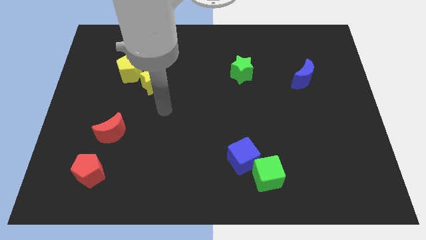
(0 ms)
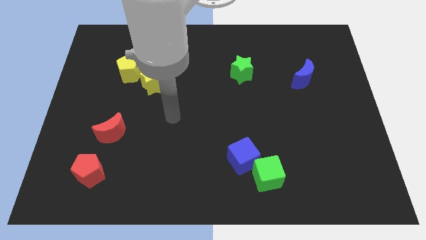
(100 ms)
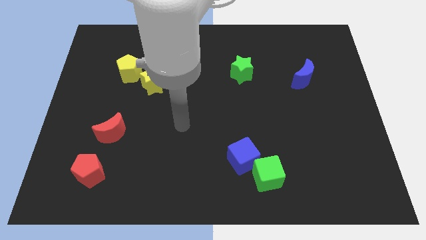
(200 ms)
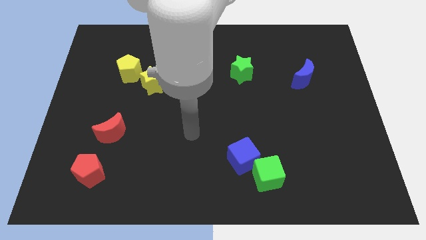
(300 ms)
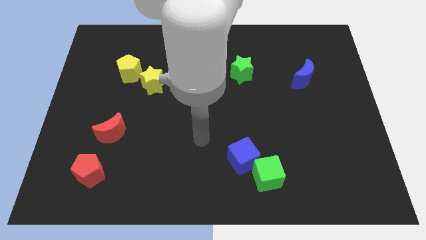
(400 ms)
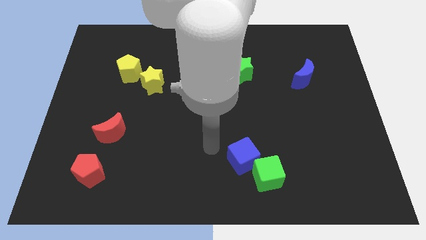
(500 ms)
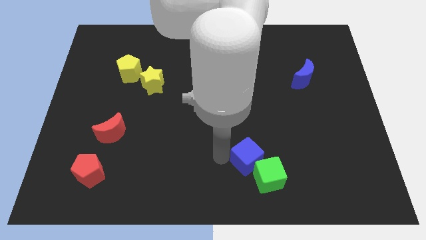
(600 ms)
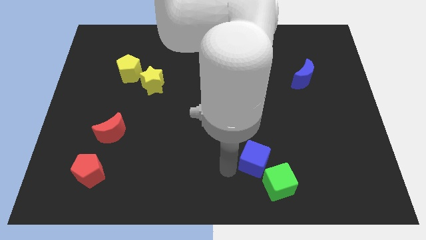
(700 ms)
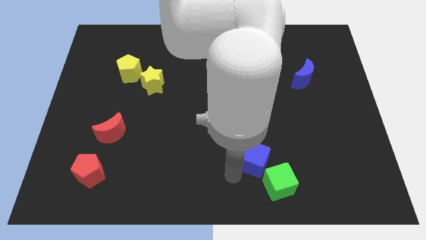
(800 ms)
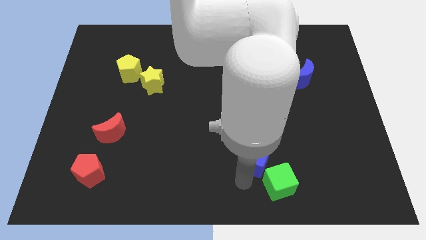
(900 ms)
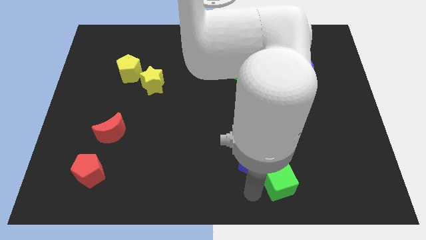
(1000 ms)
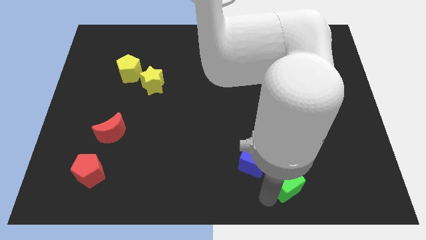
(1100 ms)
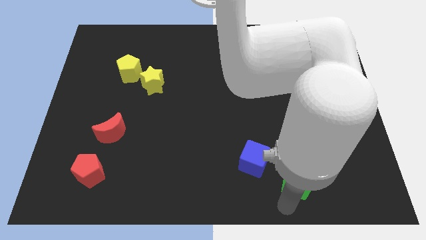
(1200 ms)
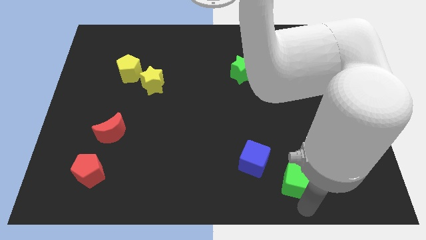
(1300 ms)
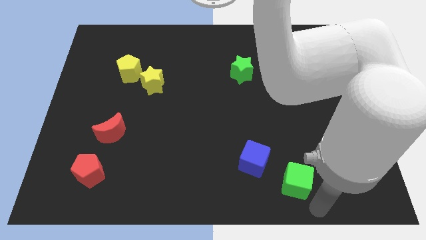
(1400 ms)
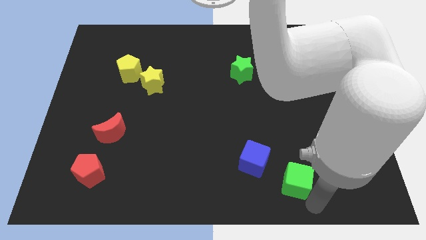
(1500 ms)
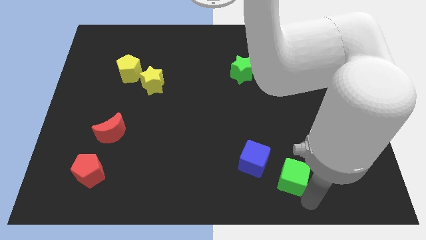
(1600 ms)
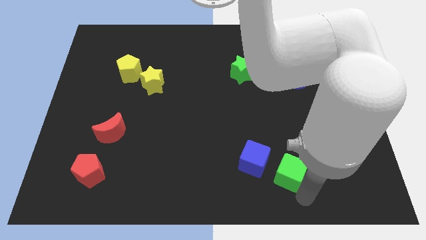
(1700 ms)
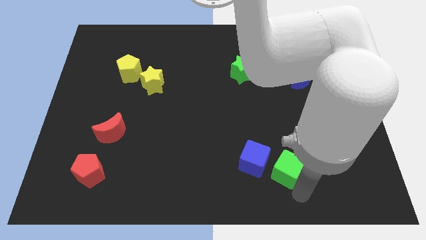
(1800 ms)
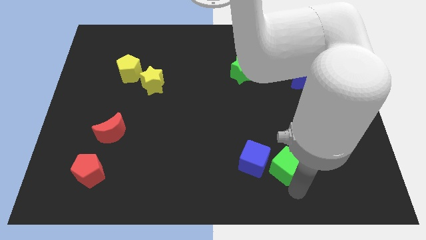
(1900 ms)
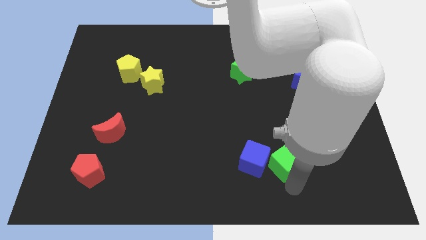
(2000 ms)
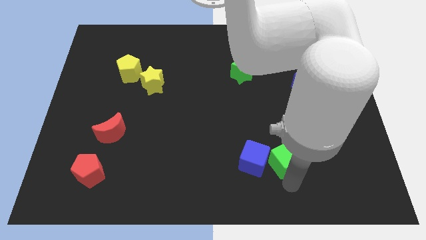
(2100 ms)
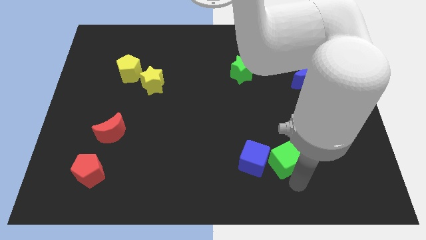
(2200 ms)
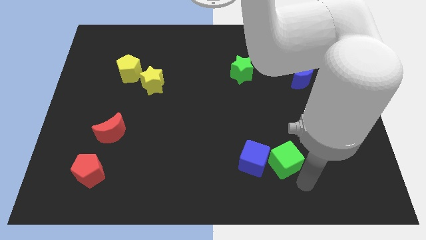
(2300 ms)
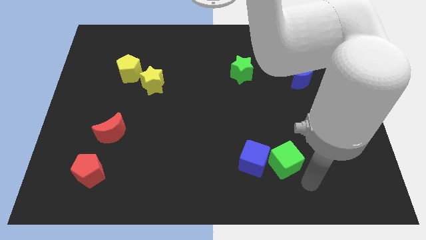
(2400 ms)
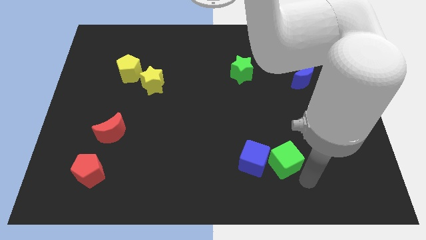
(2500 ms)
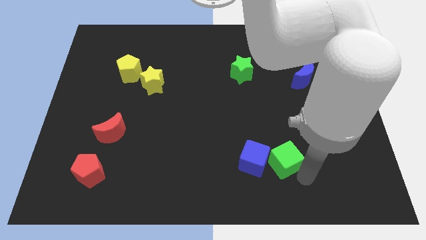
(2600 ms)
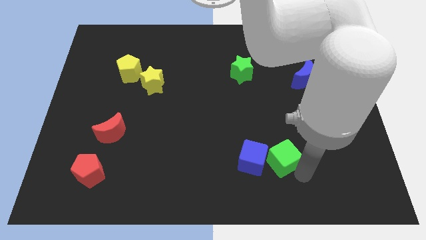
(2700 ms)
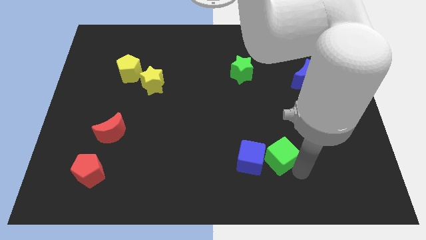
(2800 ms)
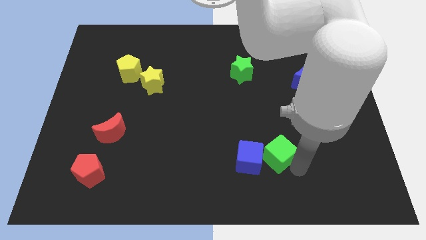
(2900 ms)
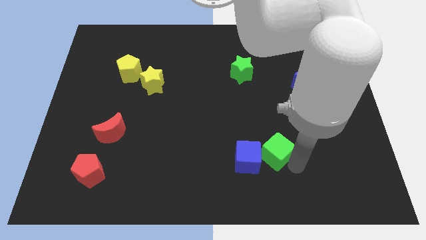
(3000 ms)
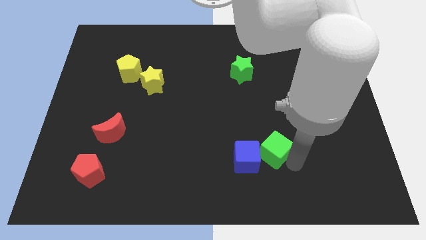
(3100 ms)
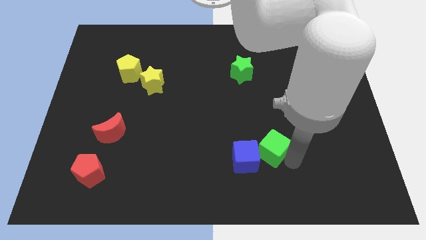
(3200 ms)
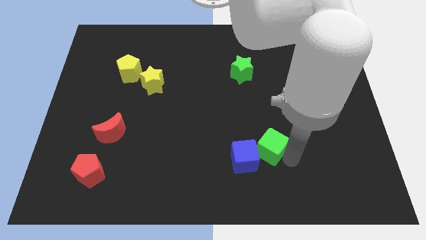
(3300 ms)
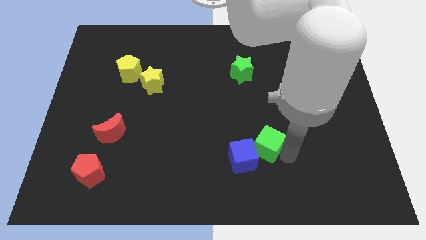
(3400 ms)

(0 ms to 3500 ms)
push the green cube a little up

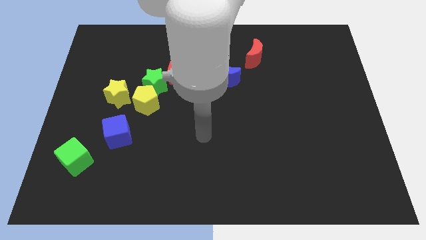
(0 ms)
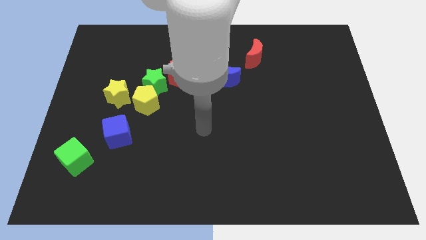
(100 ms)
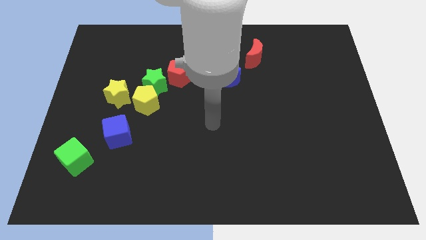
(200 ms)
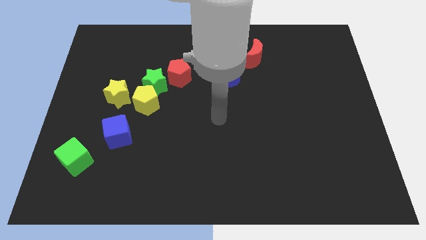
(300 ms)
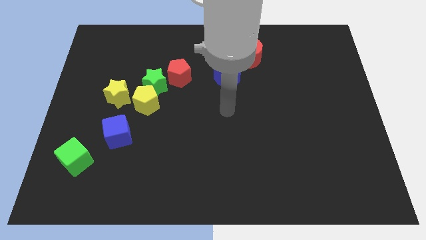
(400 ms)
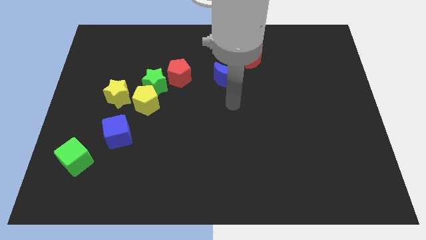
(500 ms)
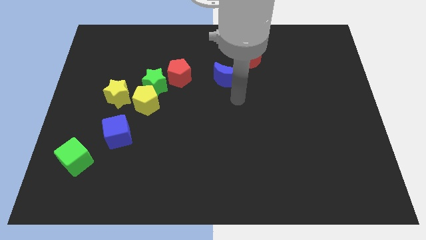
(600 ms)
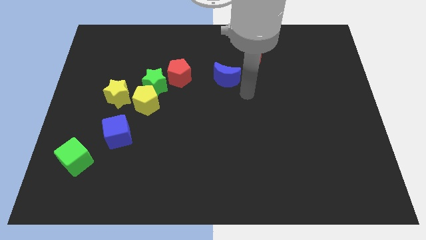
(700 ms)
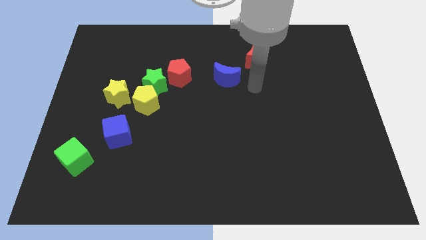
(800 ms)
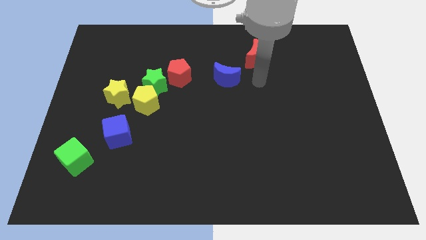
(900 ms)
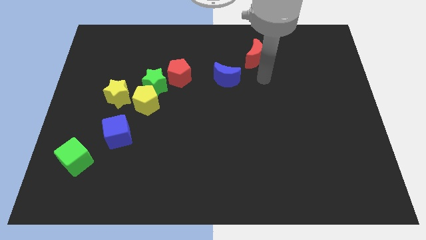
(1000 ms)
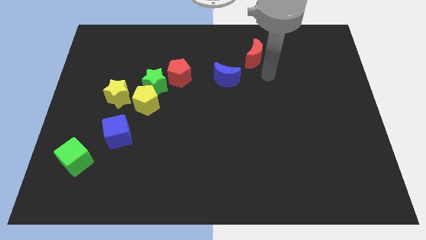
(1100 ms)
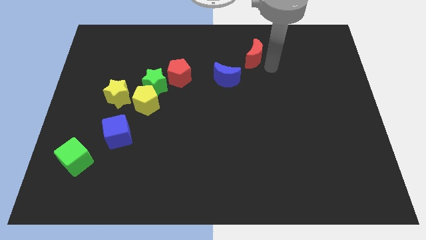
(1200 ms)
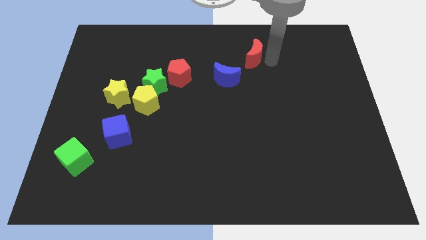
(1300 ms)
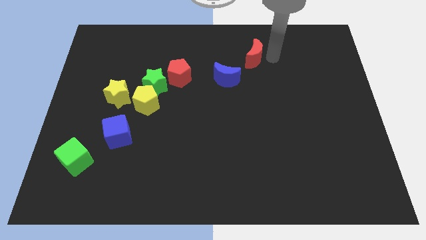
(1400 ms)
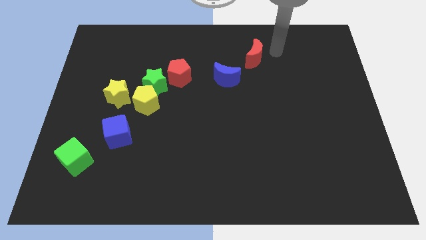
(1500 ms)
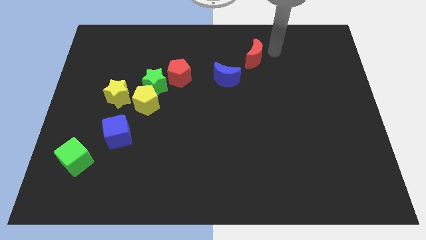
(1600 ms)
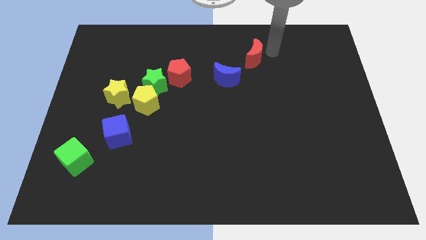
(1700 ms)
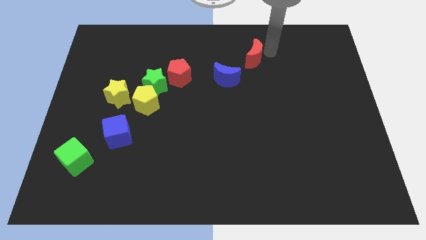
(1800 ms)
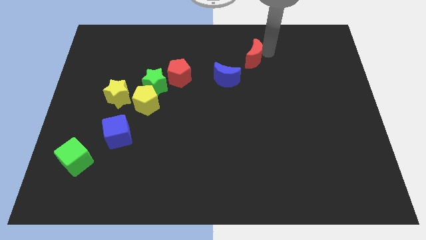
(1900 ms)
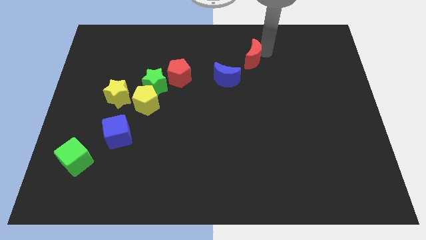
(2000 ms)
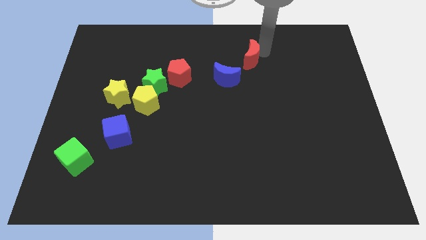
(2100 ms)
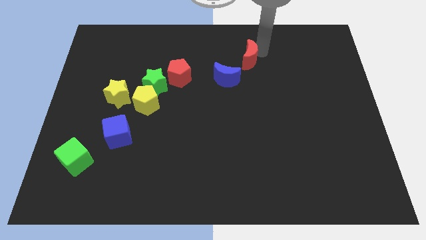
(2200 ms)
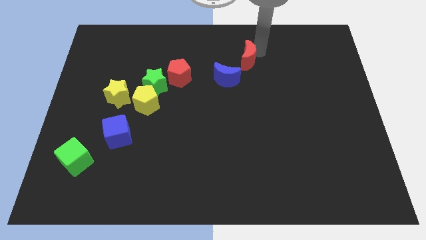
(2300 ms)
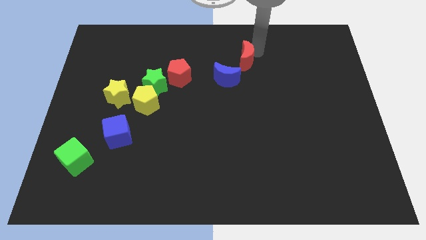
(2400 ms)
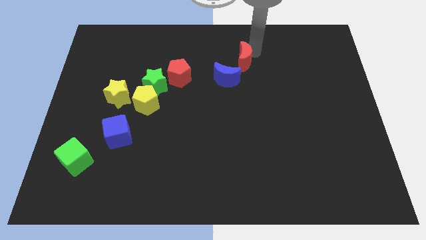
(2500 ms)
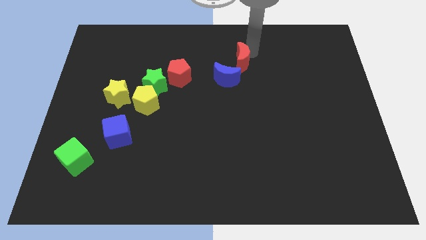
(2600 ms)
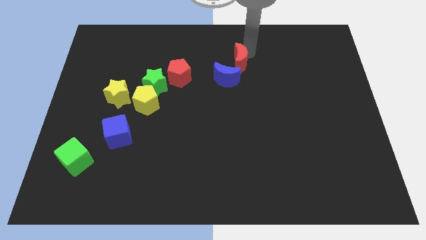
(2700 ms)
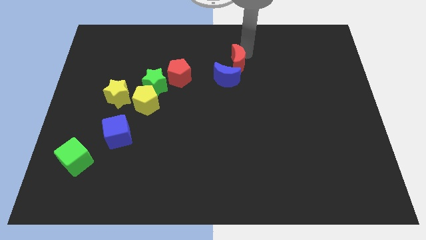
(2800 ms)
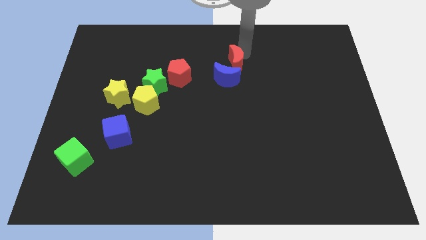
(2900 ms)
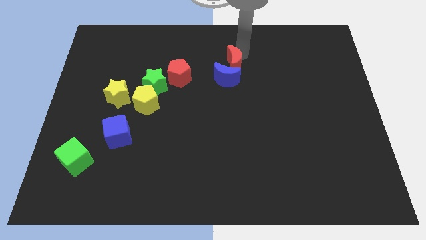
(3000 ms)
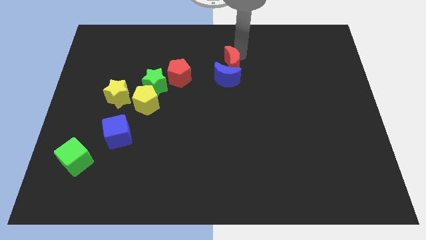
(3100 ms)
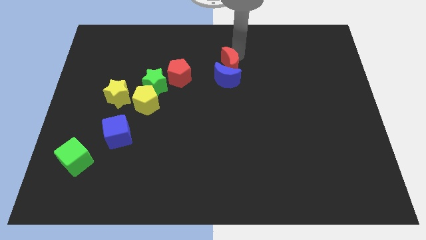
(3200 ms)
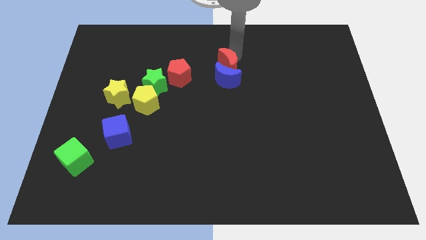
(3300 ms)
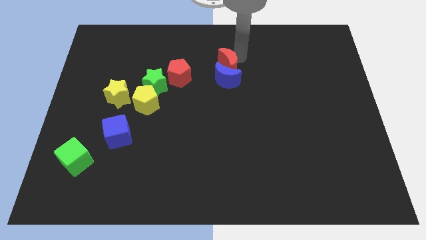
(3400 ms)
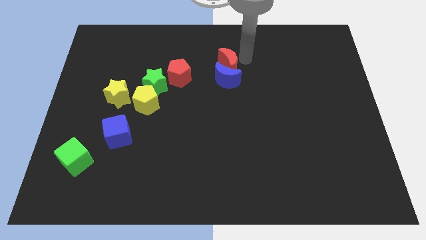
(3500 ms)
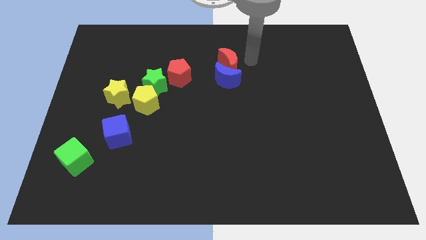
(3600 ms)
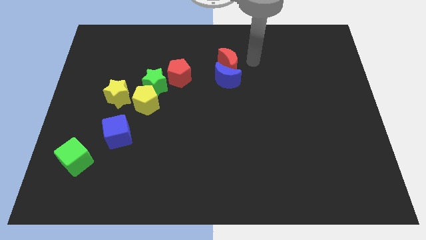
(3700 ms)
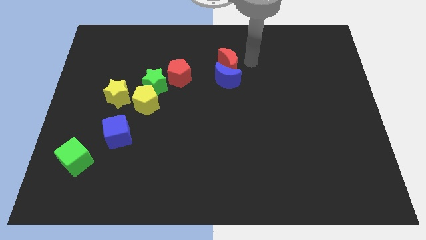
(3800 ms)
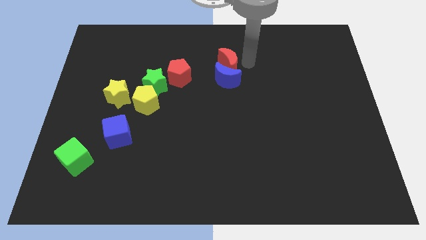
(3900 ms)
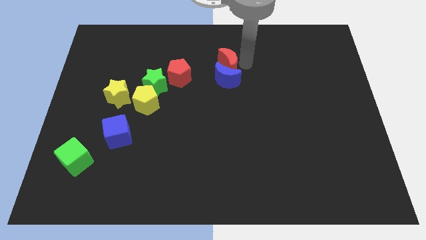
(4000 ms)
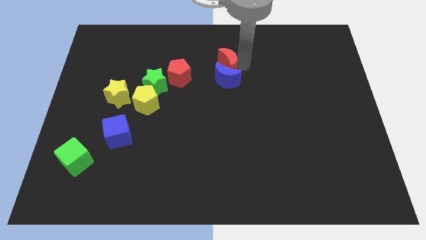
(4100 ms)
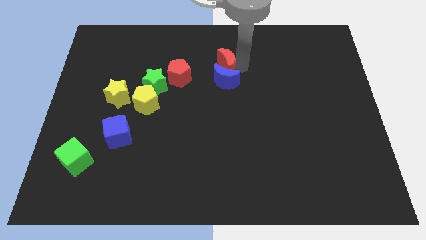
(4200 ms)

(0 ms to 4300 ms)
move the red moon a little bit downwards and to the left diagonally

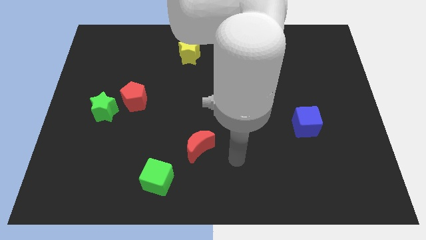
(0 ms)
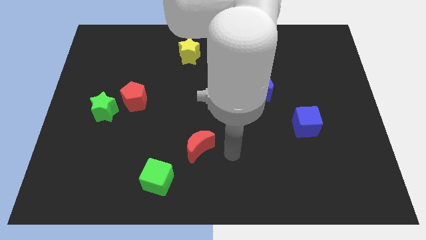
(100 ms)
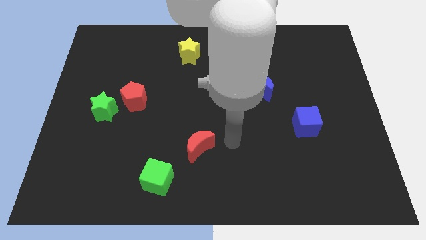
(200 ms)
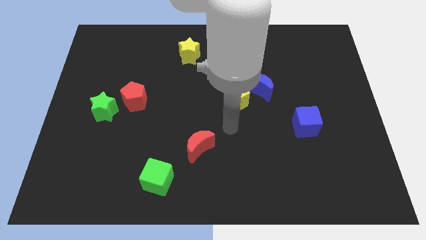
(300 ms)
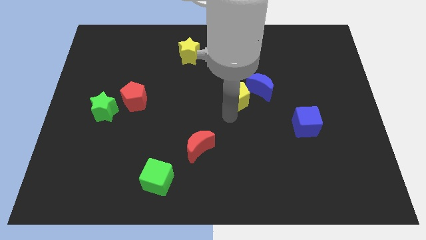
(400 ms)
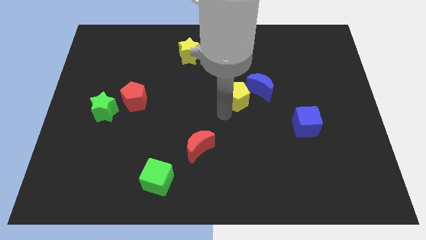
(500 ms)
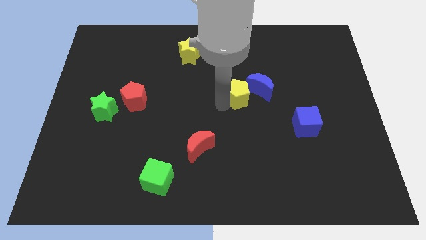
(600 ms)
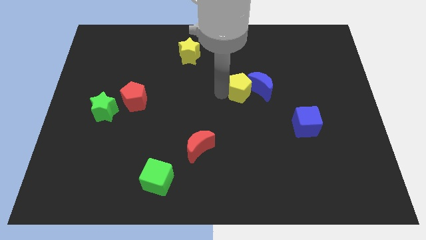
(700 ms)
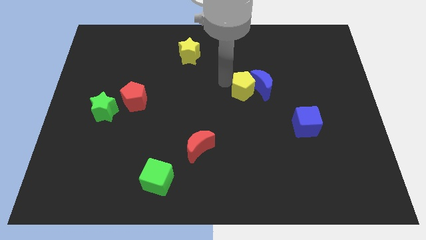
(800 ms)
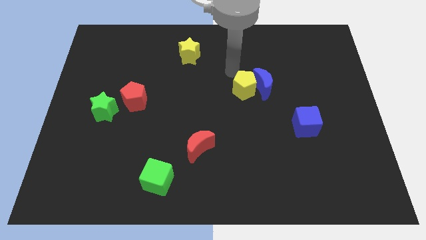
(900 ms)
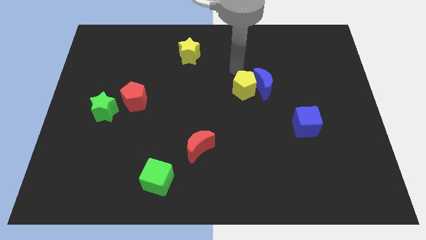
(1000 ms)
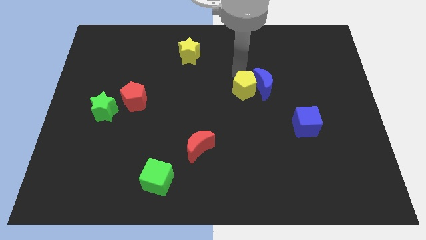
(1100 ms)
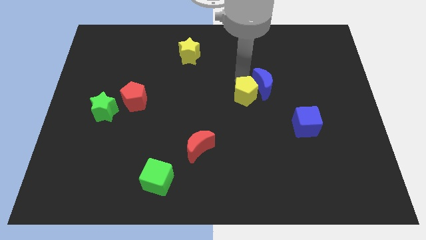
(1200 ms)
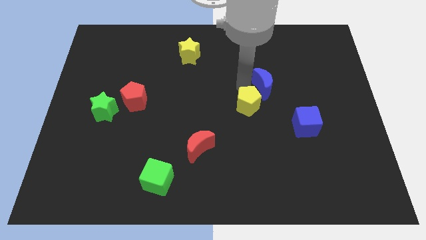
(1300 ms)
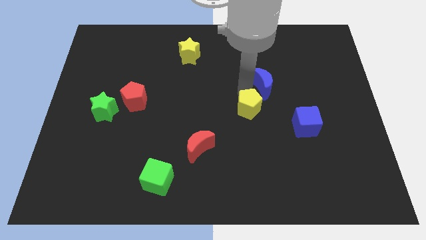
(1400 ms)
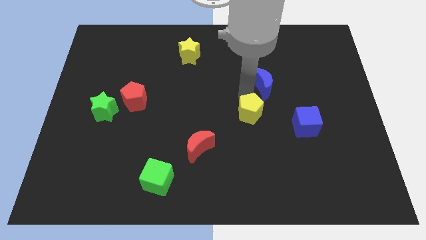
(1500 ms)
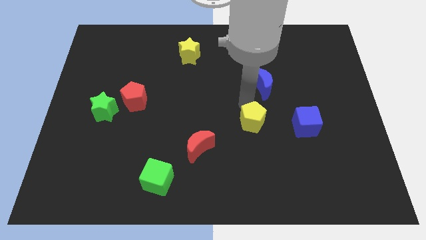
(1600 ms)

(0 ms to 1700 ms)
move the yellow pentagon somewhat diagonally downwards and right
